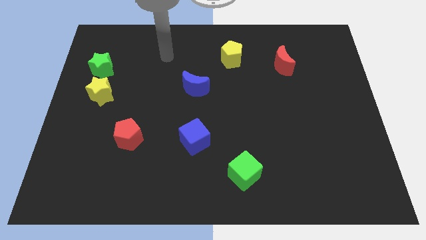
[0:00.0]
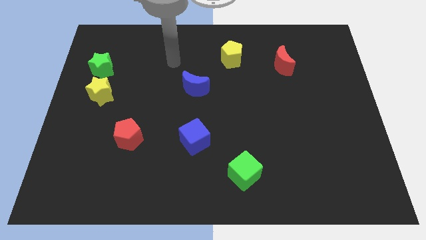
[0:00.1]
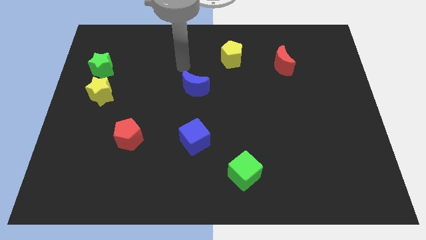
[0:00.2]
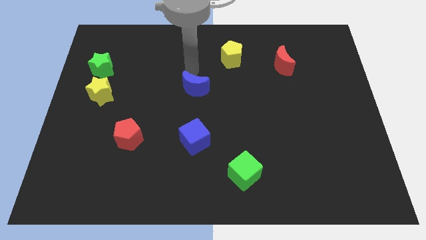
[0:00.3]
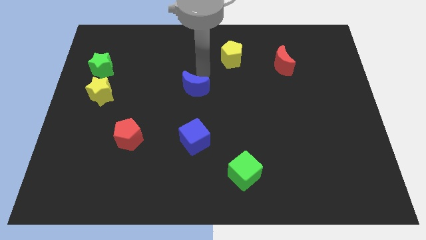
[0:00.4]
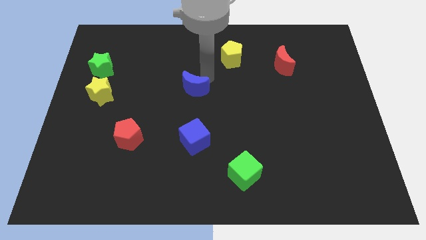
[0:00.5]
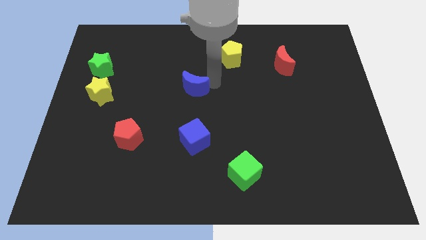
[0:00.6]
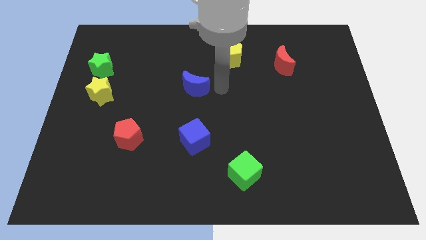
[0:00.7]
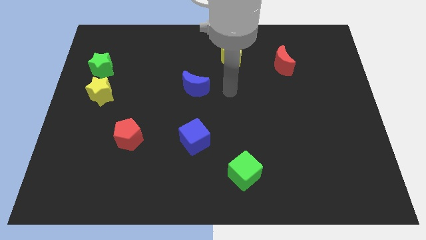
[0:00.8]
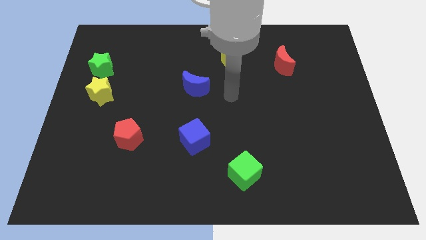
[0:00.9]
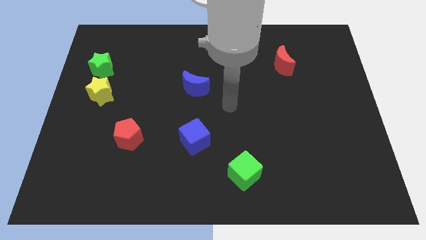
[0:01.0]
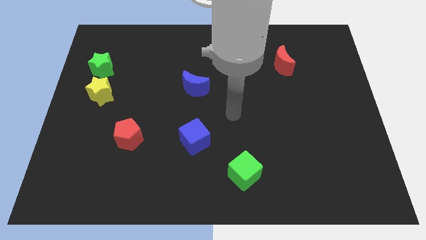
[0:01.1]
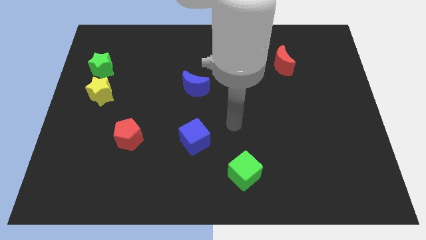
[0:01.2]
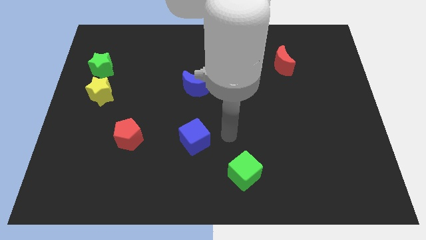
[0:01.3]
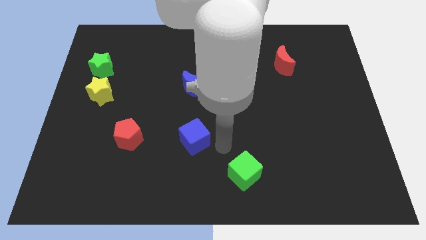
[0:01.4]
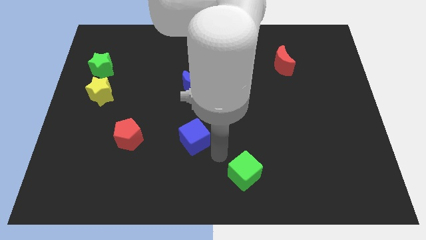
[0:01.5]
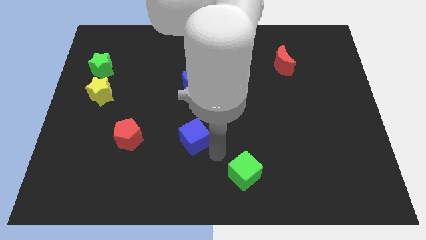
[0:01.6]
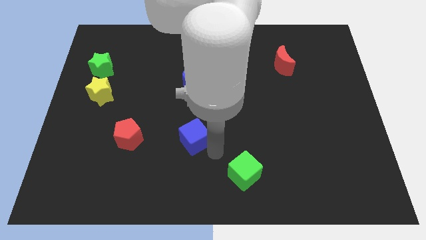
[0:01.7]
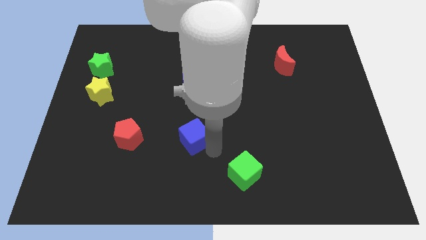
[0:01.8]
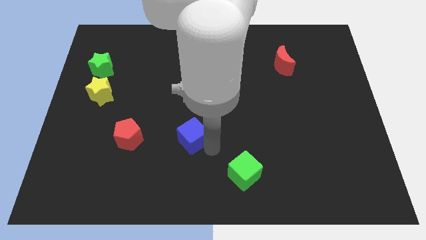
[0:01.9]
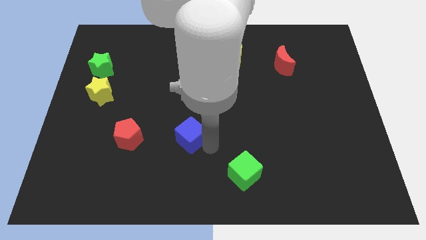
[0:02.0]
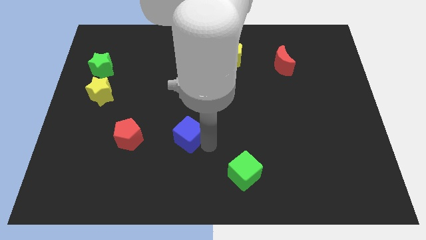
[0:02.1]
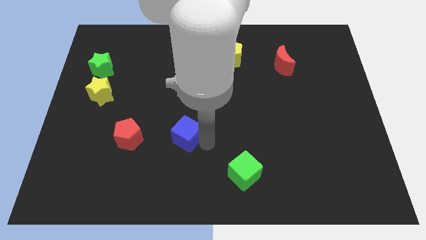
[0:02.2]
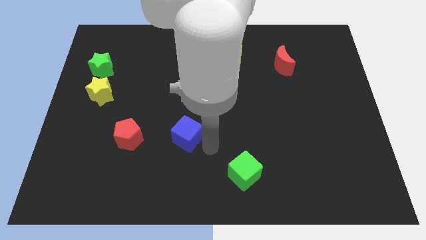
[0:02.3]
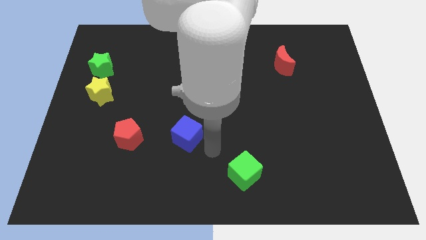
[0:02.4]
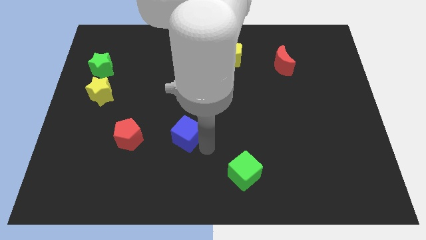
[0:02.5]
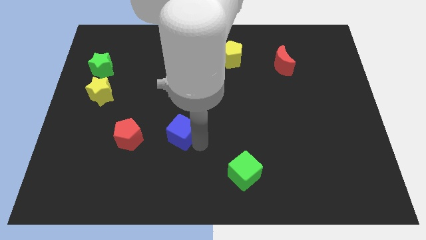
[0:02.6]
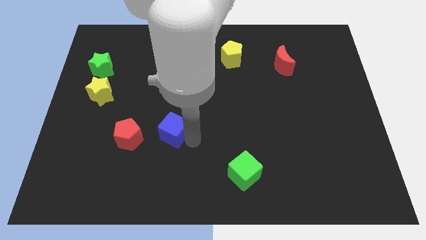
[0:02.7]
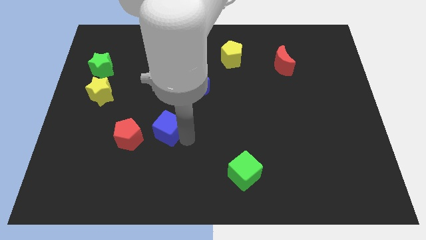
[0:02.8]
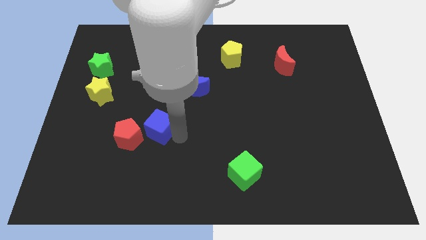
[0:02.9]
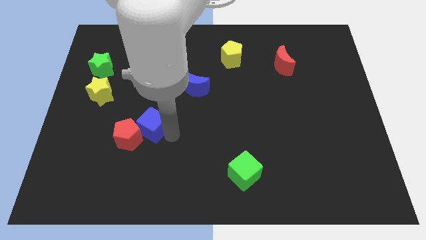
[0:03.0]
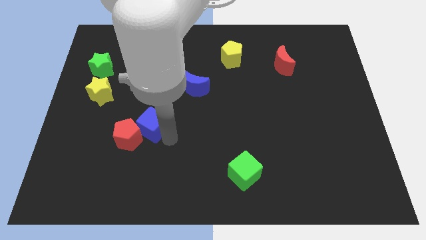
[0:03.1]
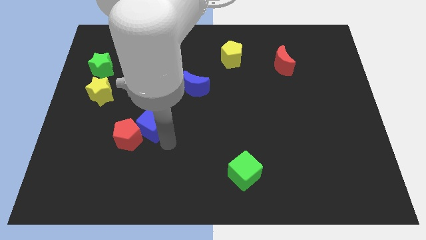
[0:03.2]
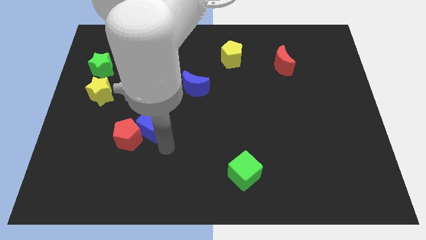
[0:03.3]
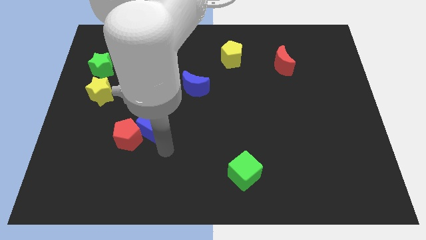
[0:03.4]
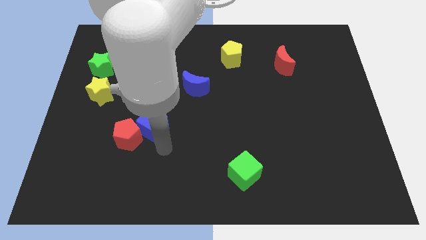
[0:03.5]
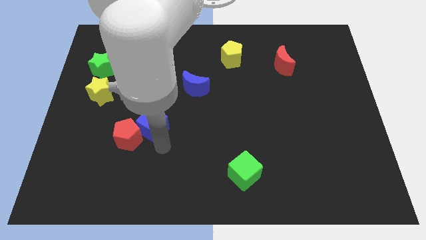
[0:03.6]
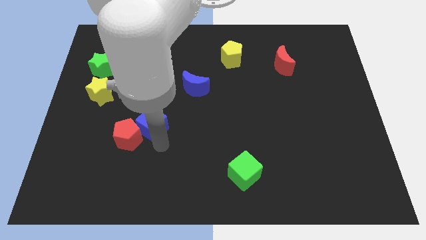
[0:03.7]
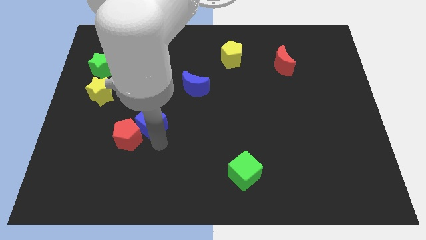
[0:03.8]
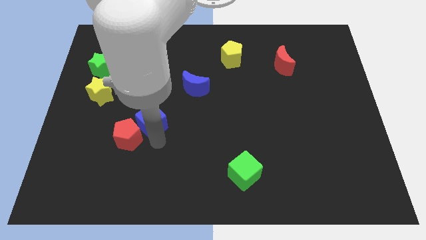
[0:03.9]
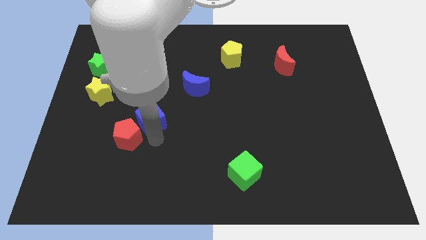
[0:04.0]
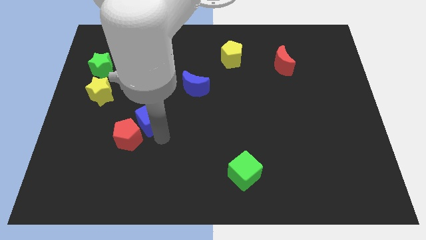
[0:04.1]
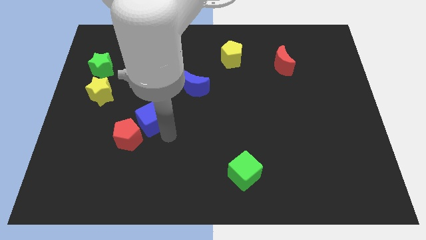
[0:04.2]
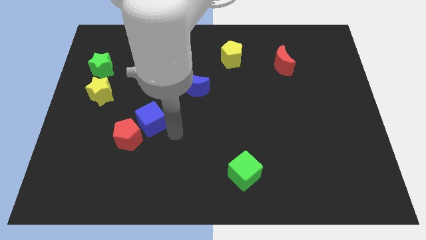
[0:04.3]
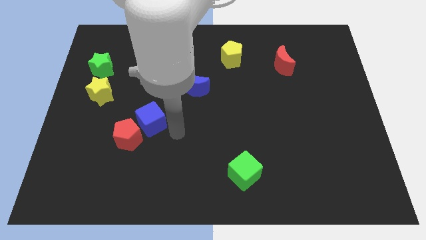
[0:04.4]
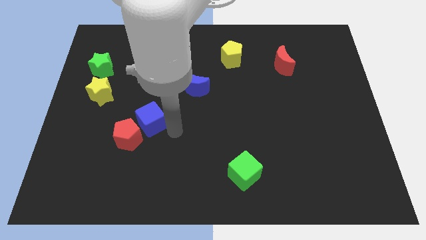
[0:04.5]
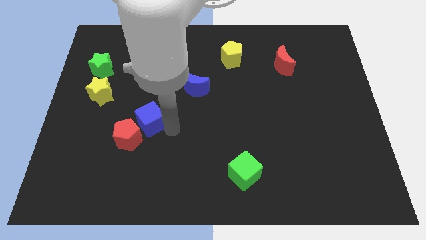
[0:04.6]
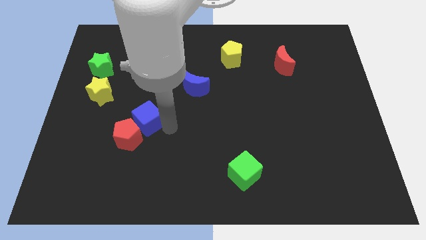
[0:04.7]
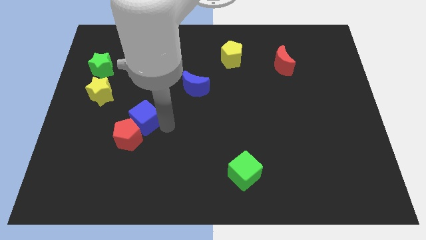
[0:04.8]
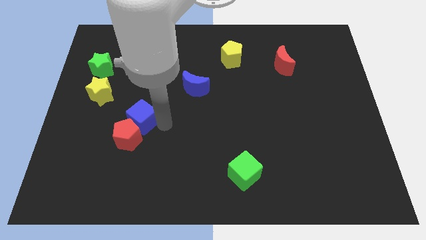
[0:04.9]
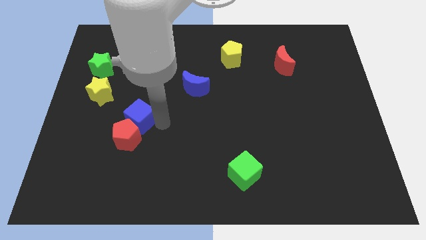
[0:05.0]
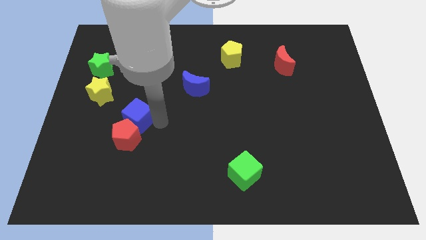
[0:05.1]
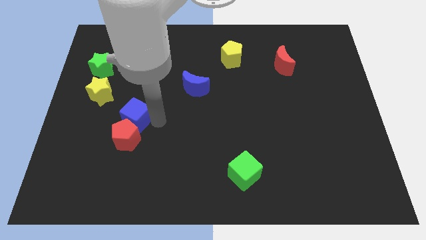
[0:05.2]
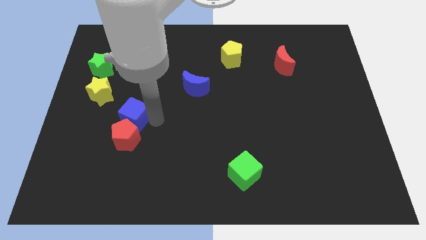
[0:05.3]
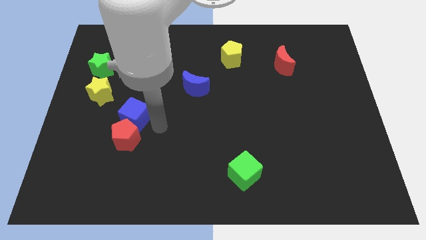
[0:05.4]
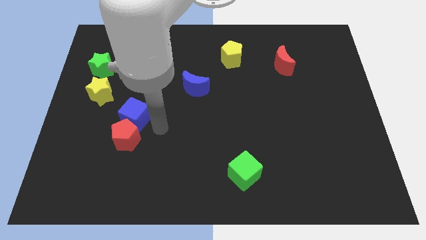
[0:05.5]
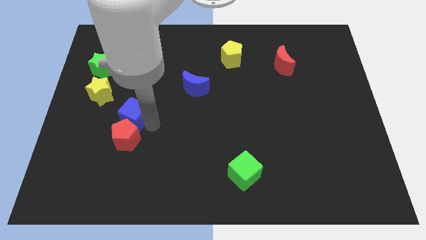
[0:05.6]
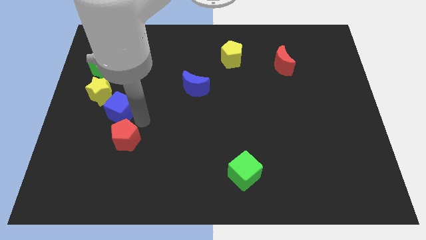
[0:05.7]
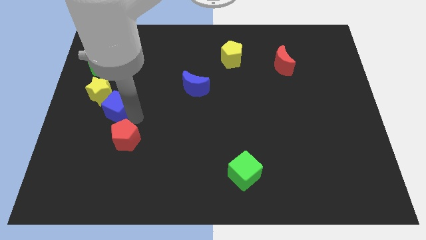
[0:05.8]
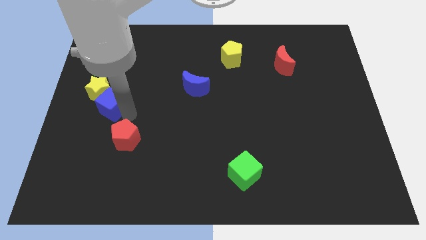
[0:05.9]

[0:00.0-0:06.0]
push the blue cube to the bottom of the green star

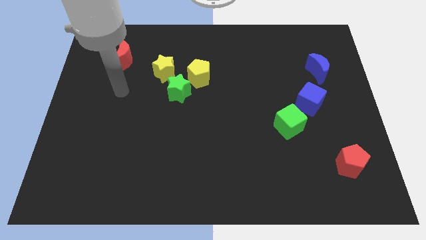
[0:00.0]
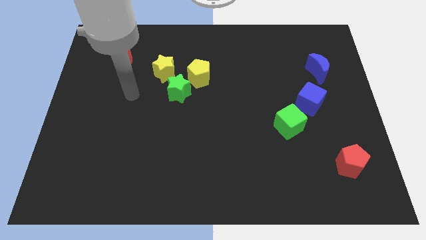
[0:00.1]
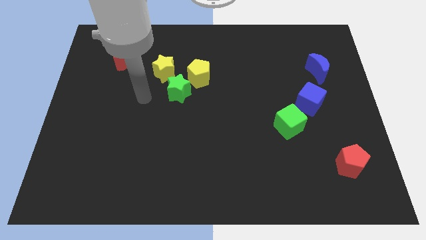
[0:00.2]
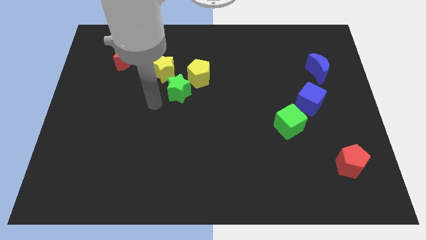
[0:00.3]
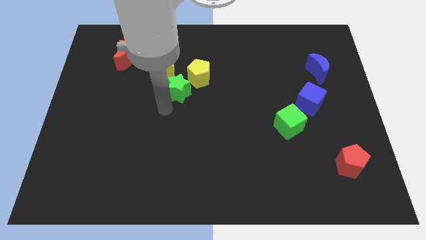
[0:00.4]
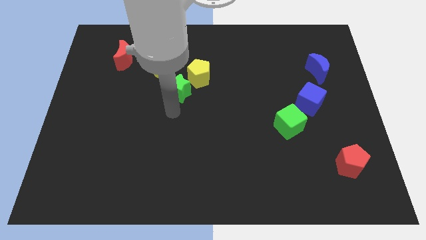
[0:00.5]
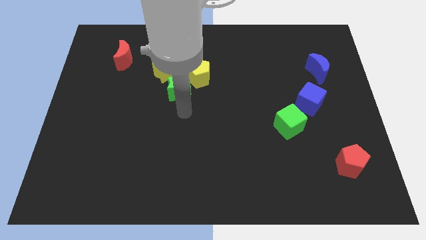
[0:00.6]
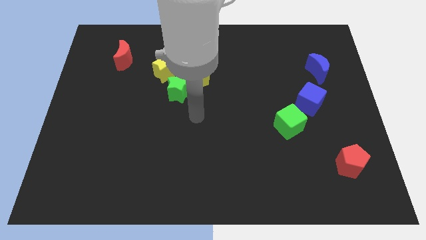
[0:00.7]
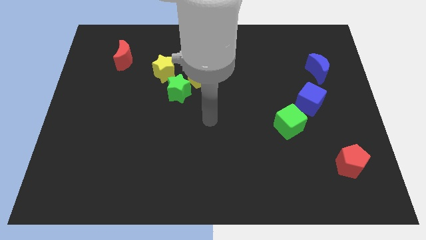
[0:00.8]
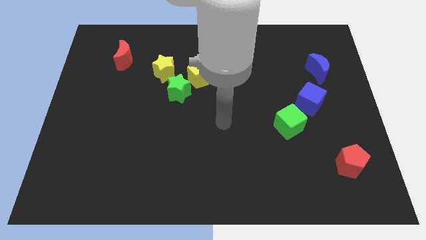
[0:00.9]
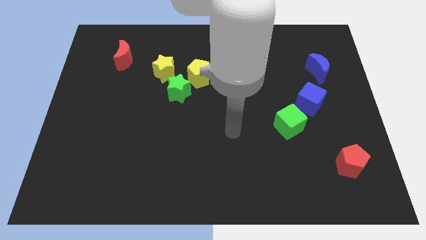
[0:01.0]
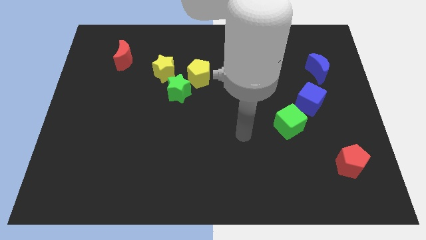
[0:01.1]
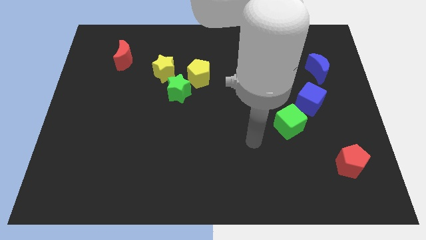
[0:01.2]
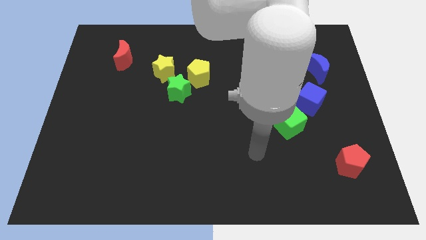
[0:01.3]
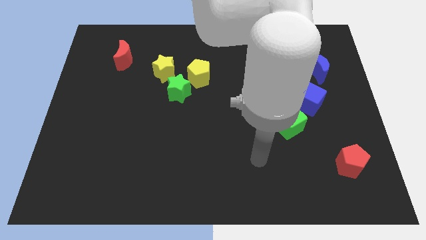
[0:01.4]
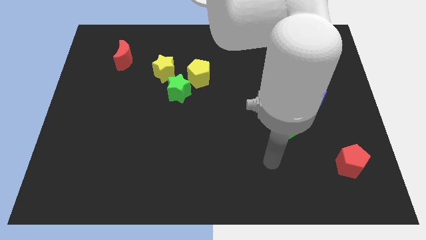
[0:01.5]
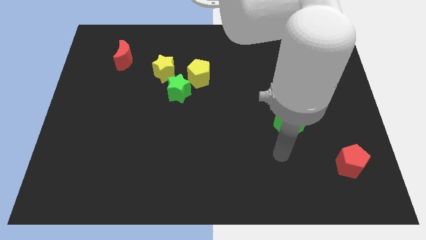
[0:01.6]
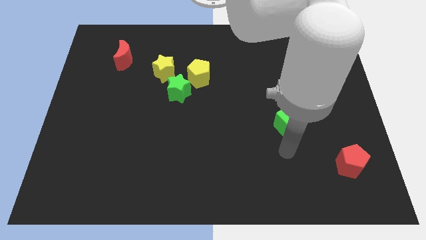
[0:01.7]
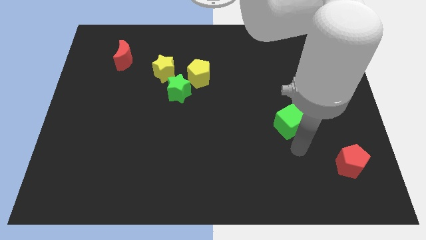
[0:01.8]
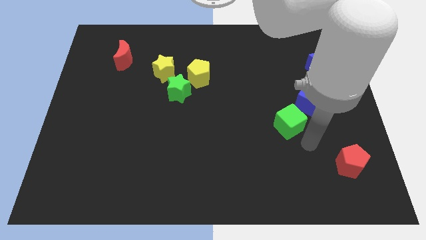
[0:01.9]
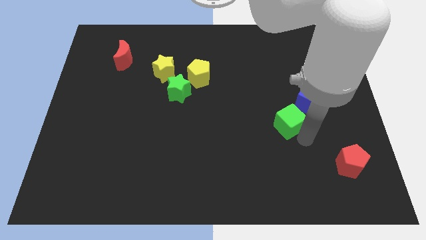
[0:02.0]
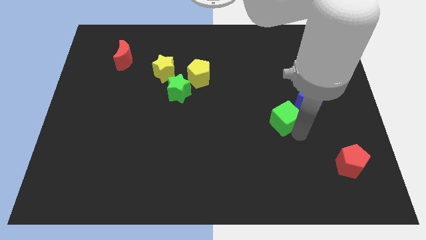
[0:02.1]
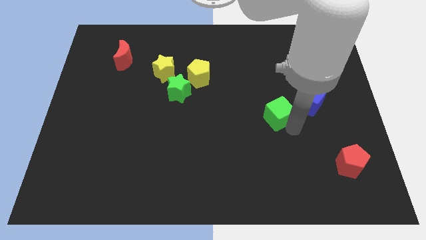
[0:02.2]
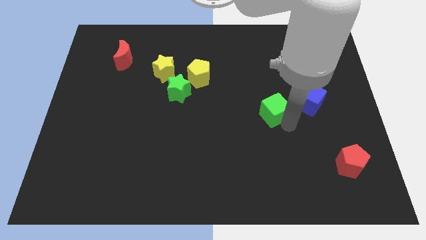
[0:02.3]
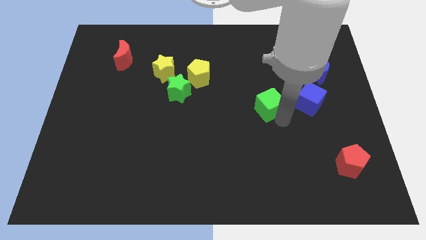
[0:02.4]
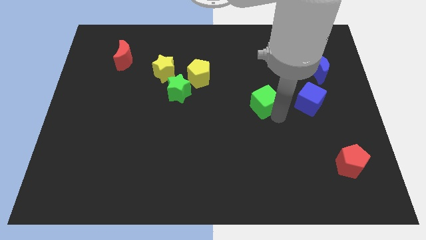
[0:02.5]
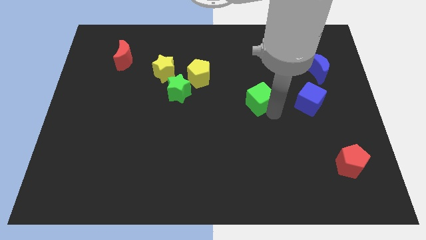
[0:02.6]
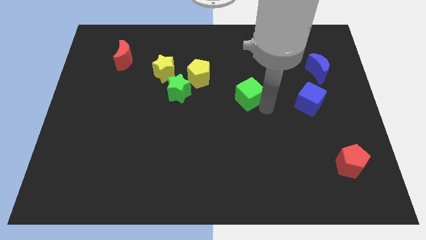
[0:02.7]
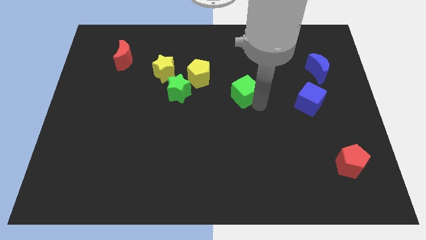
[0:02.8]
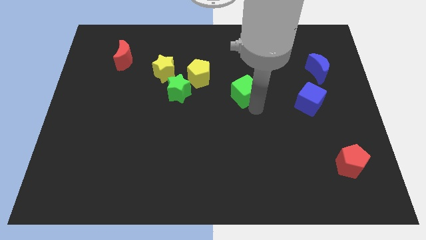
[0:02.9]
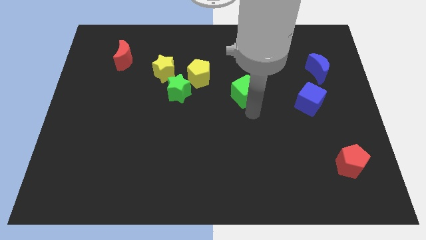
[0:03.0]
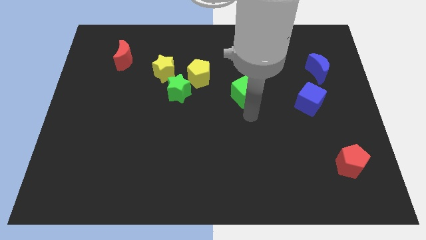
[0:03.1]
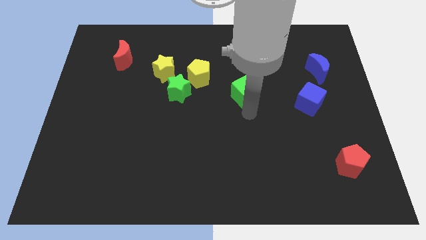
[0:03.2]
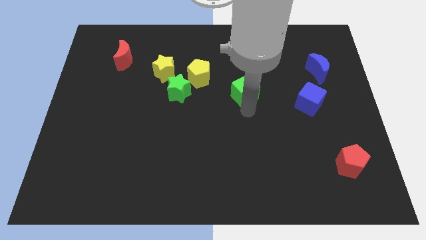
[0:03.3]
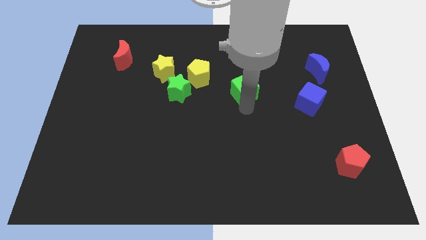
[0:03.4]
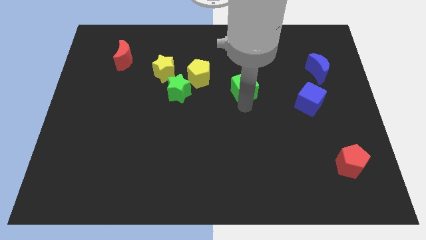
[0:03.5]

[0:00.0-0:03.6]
push the green cube right of the yellow pentagon
